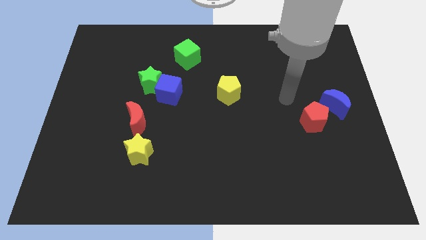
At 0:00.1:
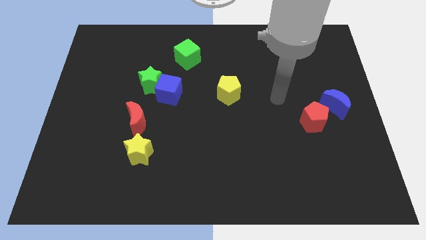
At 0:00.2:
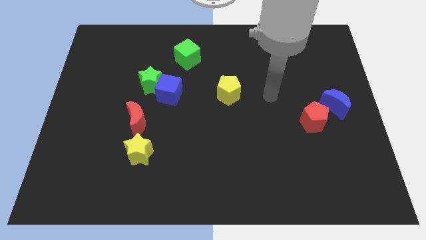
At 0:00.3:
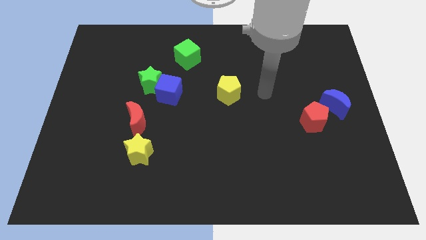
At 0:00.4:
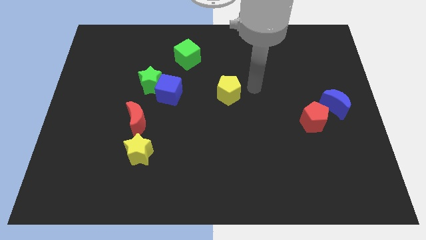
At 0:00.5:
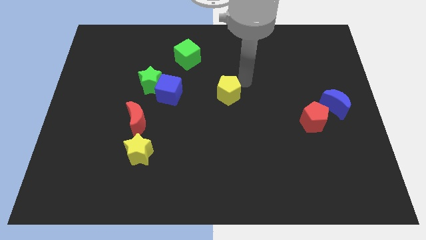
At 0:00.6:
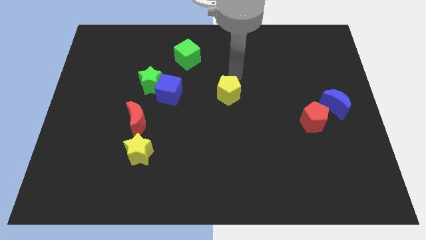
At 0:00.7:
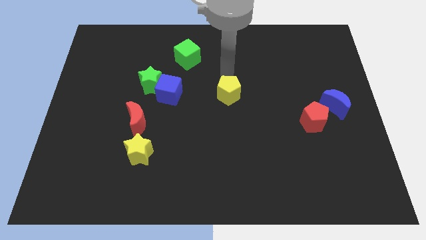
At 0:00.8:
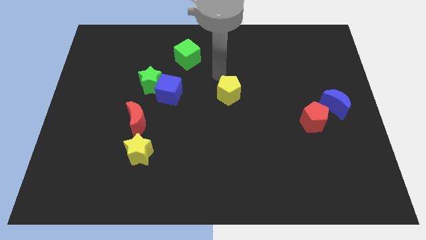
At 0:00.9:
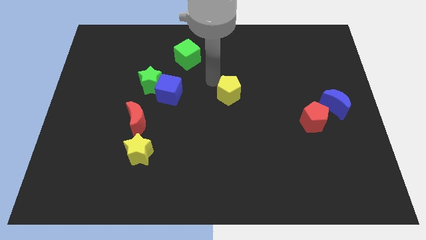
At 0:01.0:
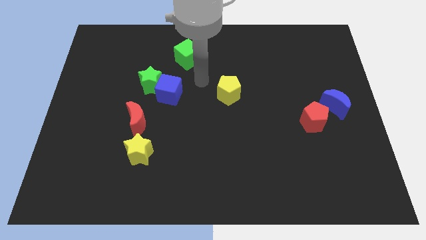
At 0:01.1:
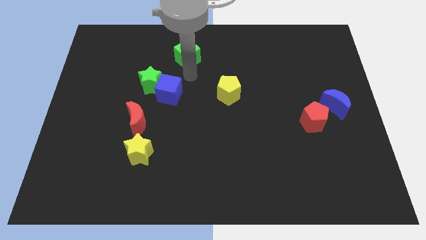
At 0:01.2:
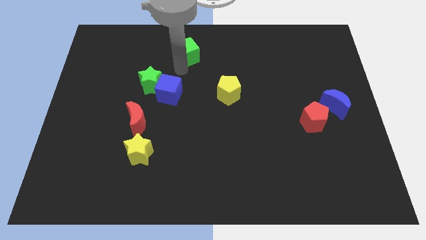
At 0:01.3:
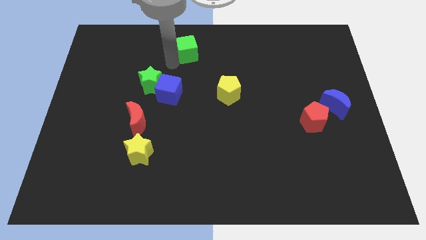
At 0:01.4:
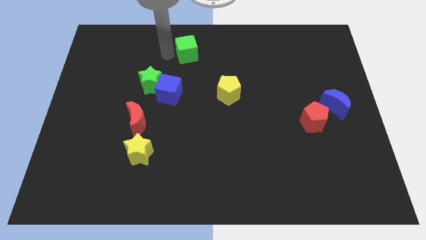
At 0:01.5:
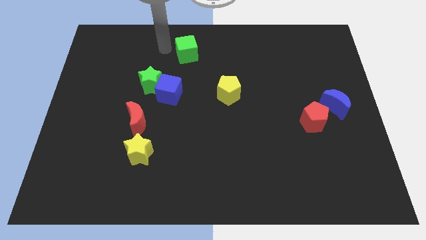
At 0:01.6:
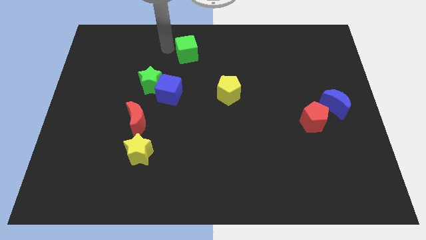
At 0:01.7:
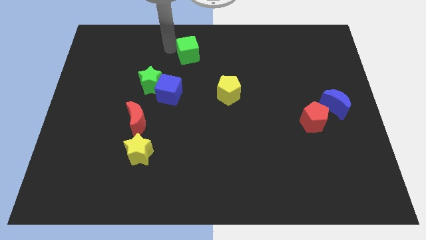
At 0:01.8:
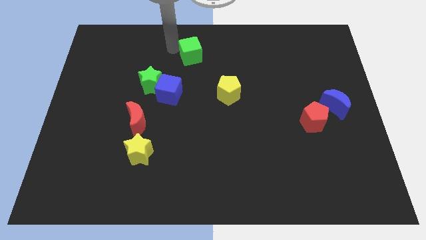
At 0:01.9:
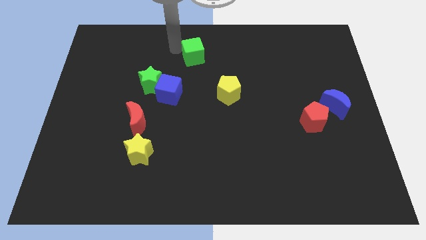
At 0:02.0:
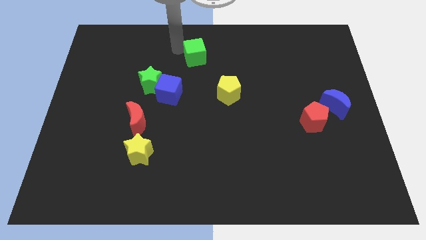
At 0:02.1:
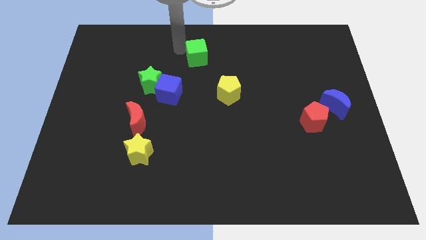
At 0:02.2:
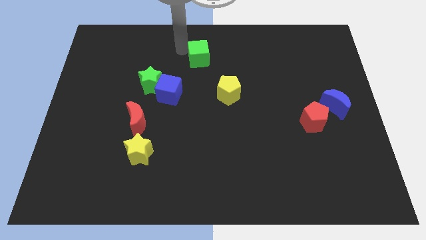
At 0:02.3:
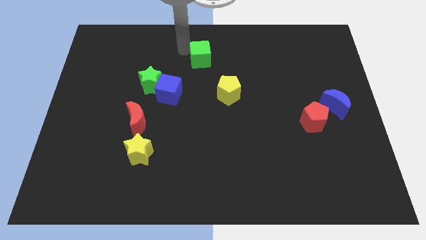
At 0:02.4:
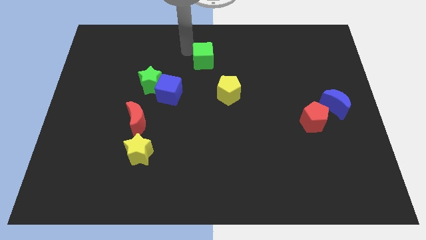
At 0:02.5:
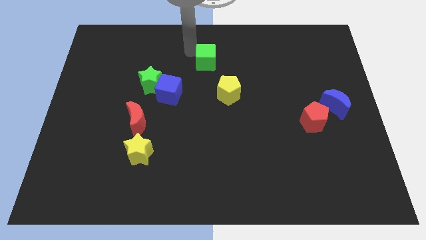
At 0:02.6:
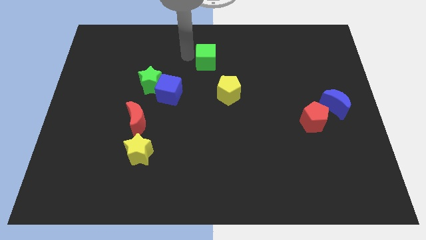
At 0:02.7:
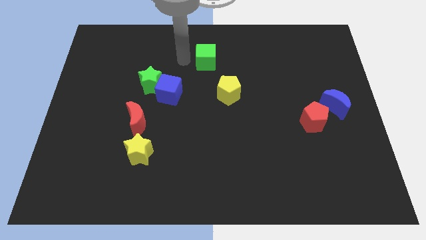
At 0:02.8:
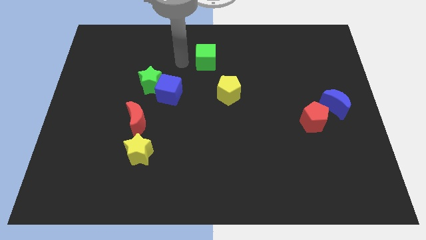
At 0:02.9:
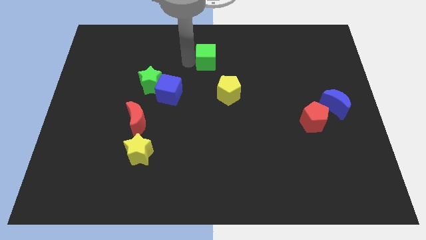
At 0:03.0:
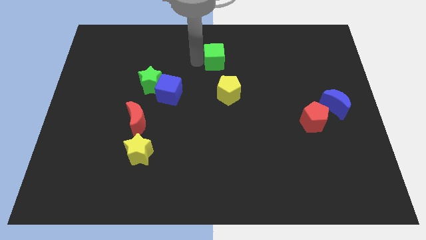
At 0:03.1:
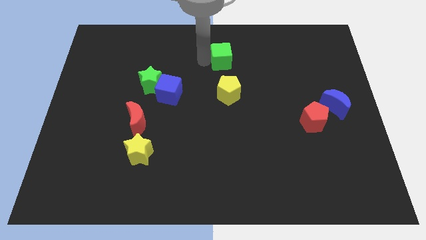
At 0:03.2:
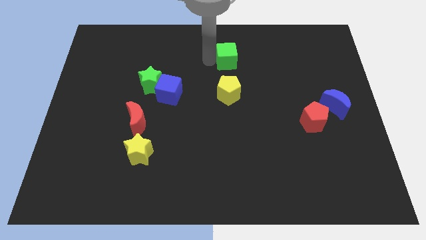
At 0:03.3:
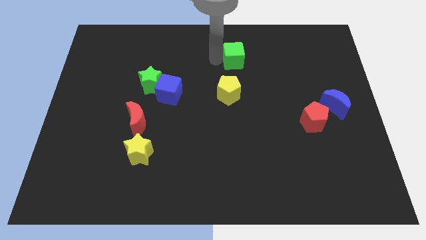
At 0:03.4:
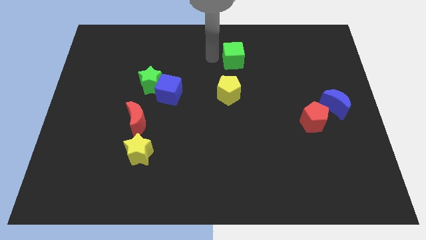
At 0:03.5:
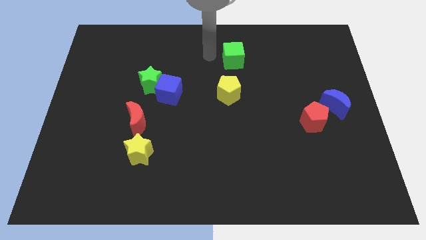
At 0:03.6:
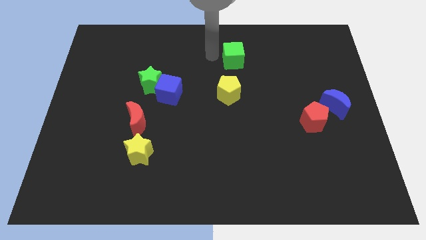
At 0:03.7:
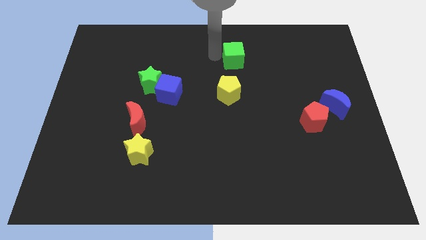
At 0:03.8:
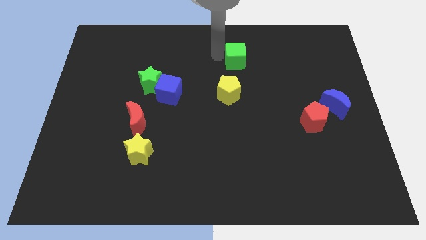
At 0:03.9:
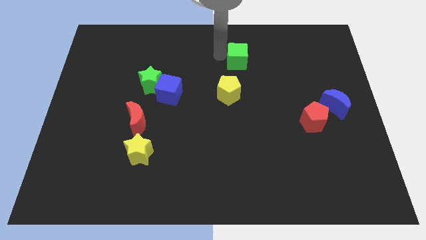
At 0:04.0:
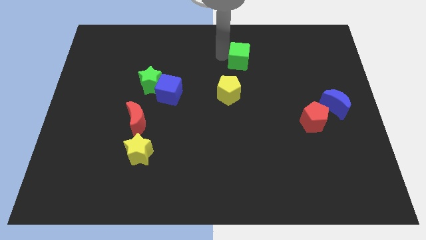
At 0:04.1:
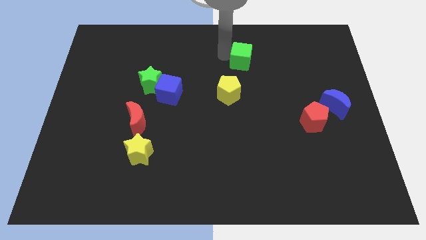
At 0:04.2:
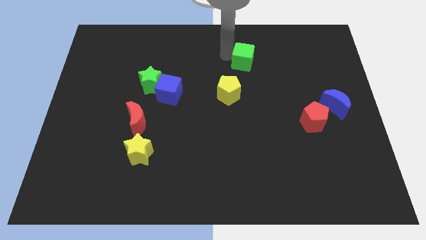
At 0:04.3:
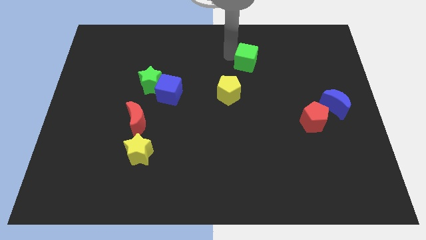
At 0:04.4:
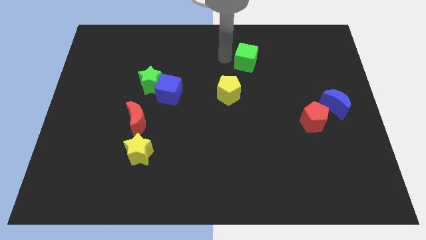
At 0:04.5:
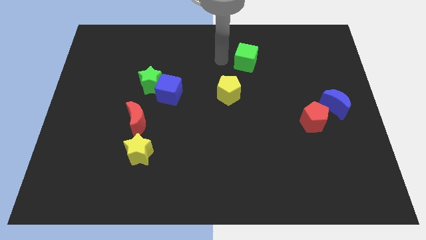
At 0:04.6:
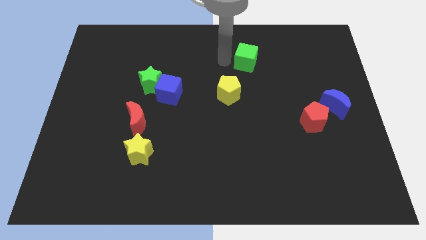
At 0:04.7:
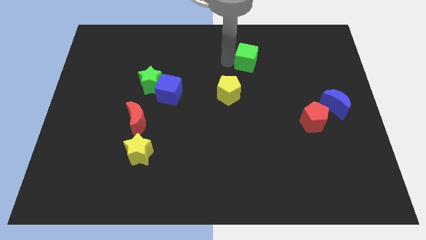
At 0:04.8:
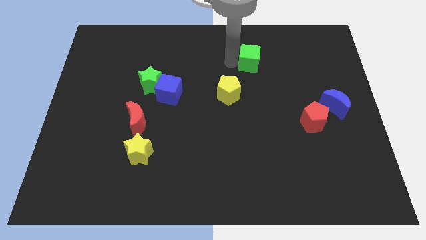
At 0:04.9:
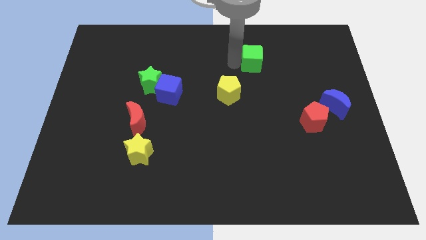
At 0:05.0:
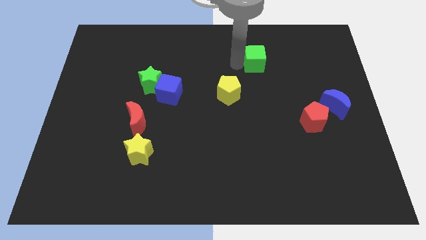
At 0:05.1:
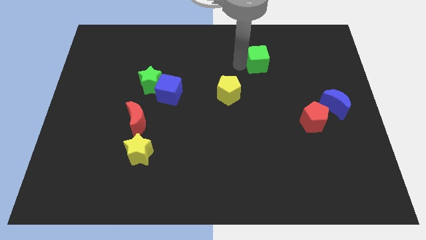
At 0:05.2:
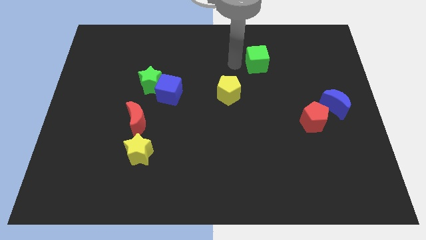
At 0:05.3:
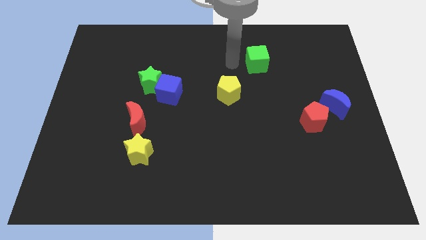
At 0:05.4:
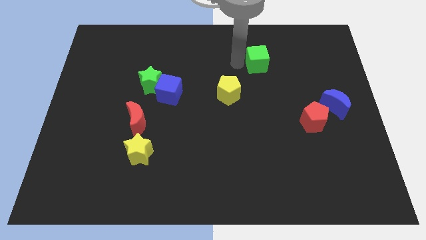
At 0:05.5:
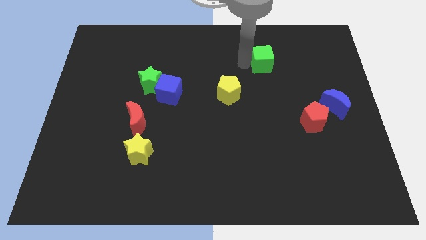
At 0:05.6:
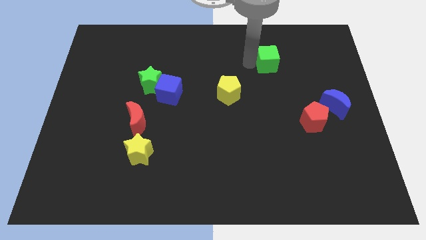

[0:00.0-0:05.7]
push the green cube to the right

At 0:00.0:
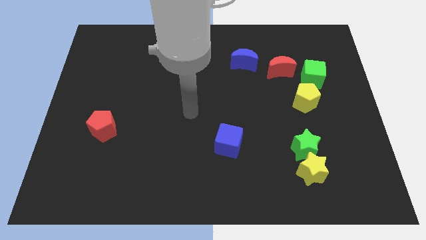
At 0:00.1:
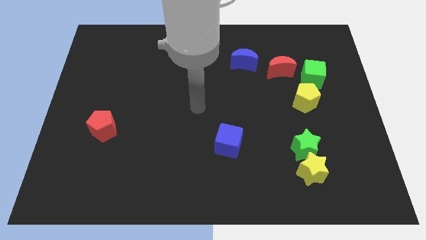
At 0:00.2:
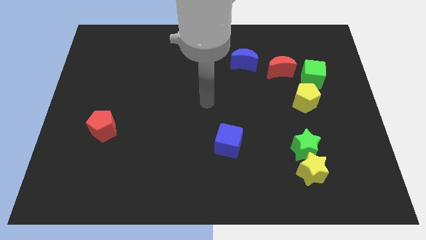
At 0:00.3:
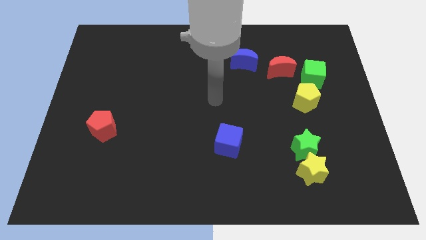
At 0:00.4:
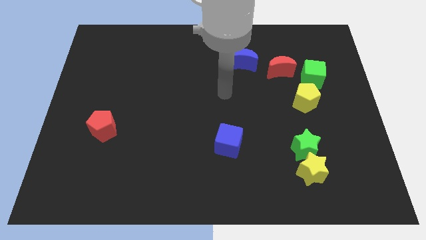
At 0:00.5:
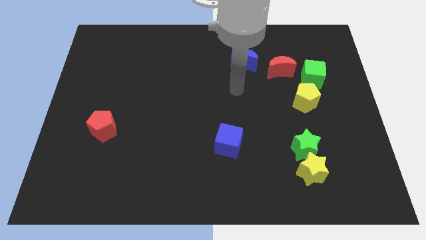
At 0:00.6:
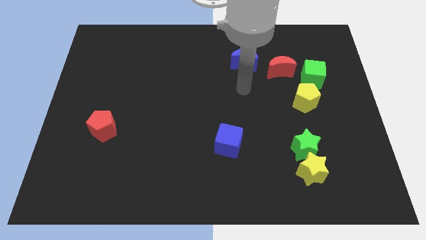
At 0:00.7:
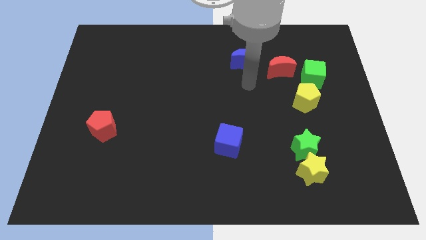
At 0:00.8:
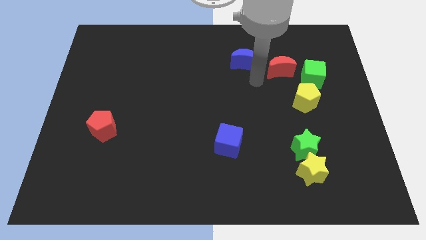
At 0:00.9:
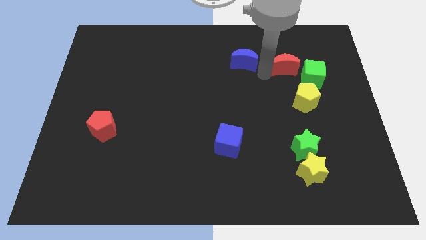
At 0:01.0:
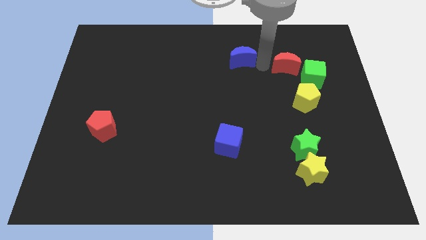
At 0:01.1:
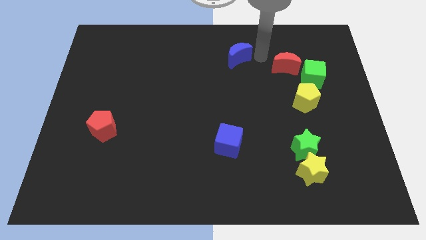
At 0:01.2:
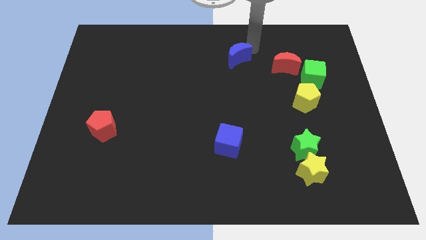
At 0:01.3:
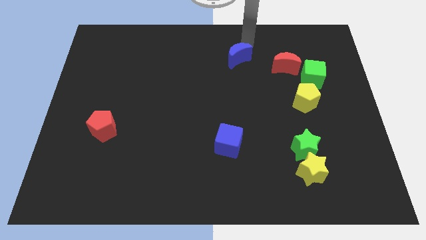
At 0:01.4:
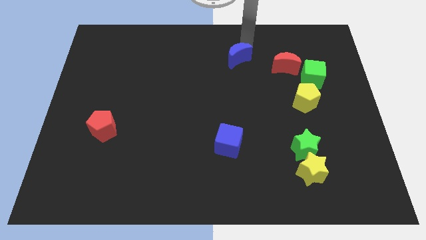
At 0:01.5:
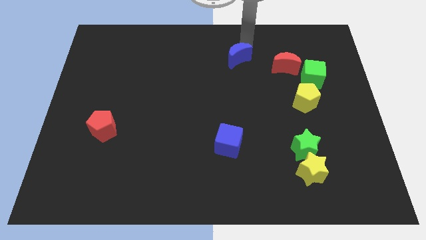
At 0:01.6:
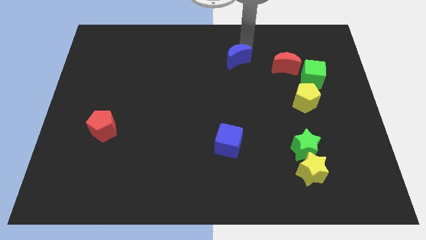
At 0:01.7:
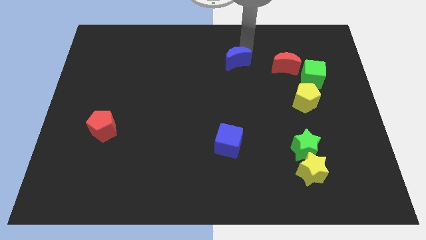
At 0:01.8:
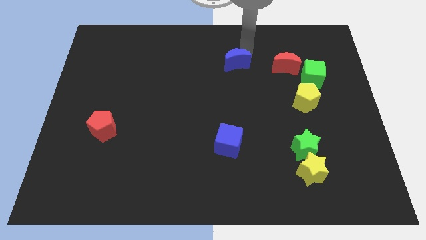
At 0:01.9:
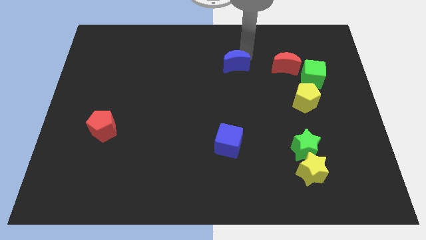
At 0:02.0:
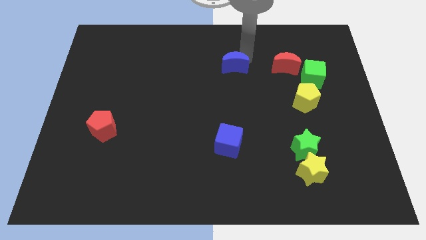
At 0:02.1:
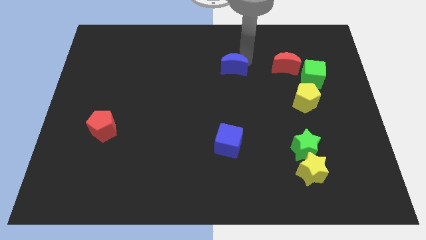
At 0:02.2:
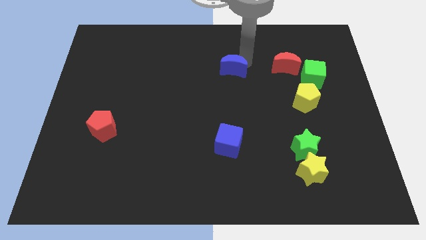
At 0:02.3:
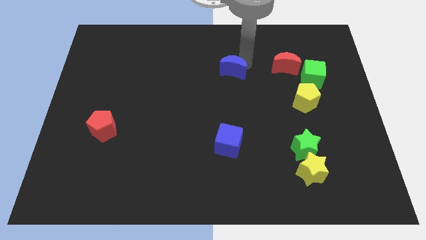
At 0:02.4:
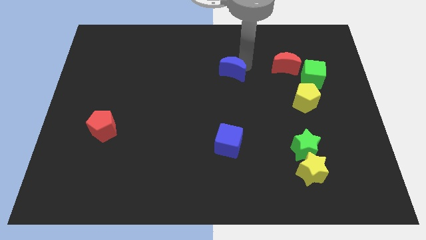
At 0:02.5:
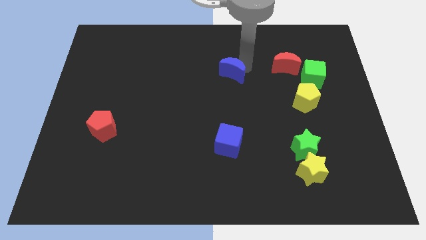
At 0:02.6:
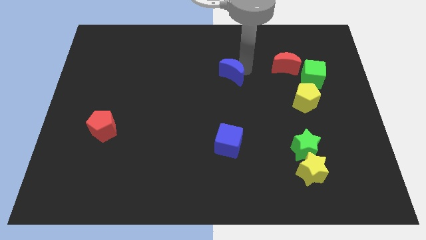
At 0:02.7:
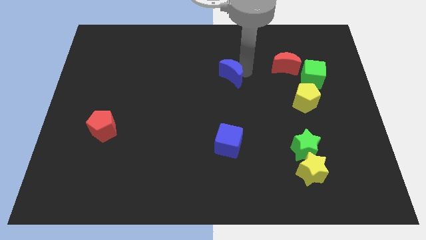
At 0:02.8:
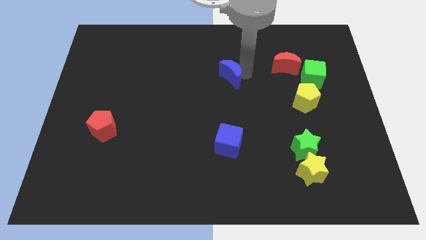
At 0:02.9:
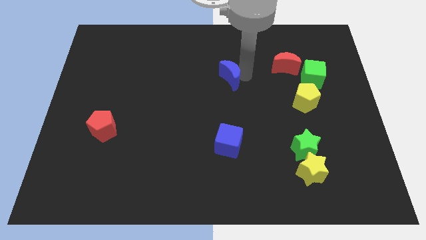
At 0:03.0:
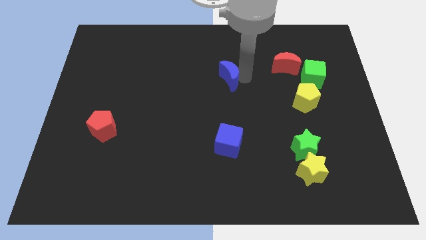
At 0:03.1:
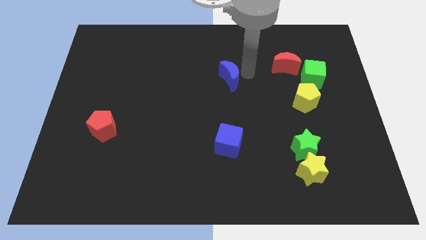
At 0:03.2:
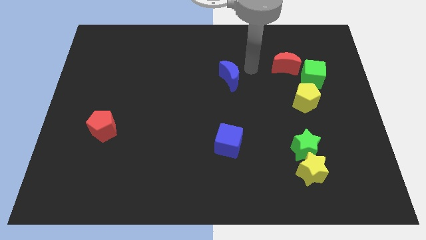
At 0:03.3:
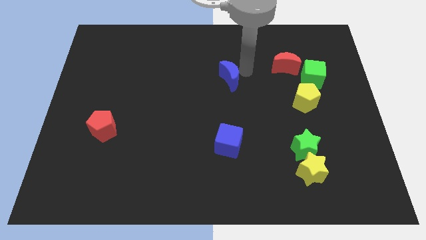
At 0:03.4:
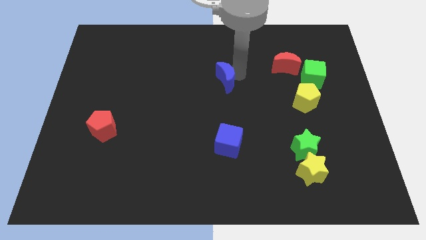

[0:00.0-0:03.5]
push the blue moon a bit downwards and to the left
